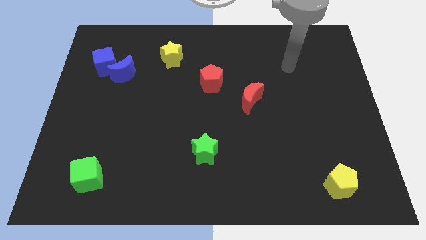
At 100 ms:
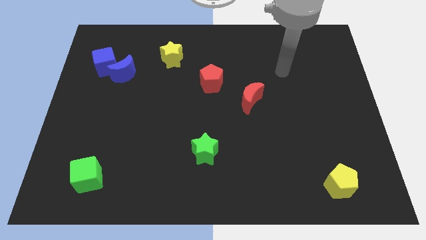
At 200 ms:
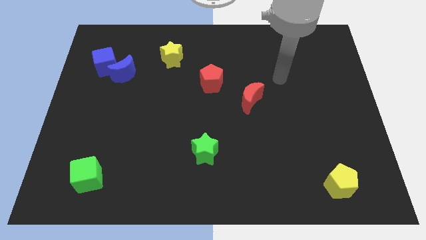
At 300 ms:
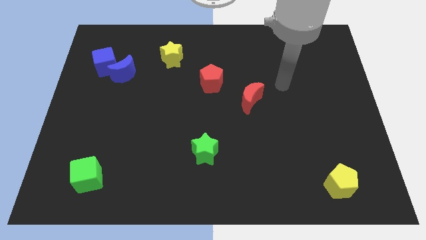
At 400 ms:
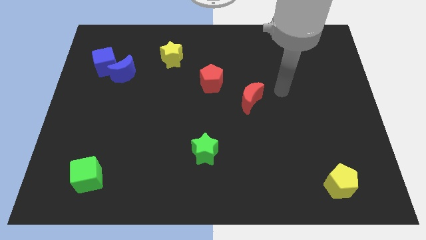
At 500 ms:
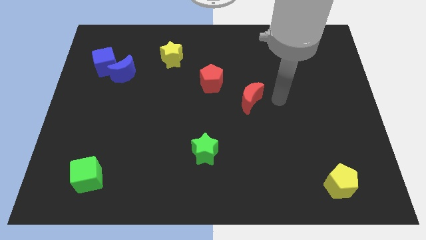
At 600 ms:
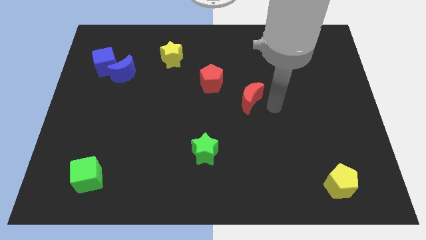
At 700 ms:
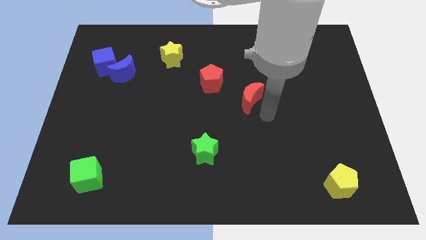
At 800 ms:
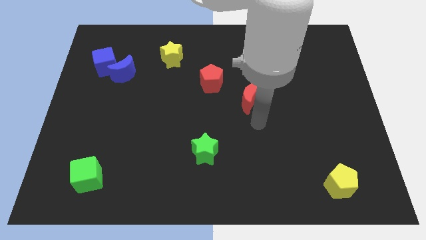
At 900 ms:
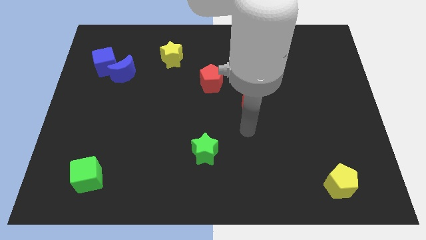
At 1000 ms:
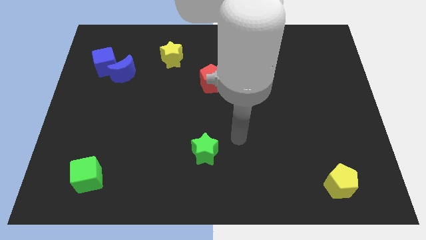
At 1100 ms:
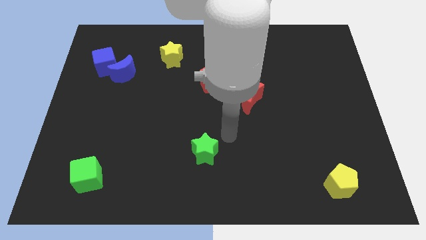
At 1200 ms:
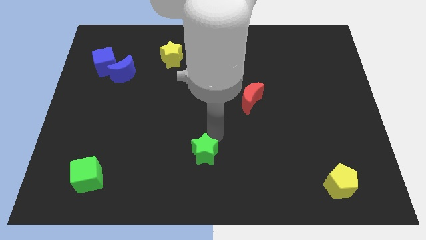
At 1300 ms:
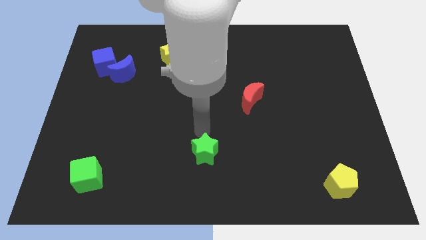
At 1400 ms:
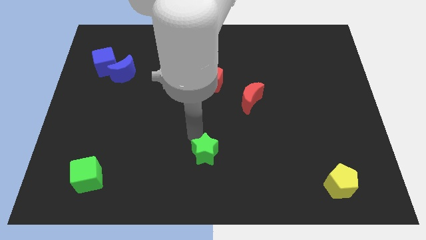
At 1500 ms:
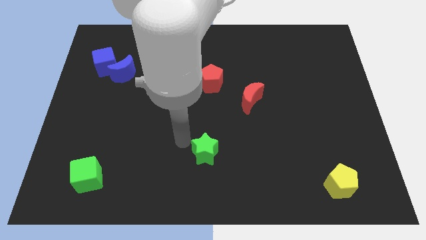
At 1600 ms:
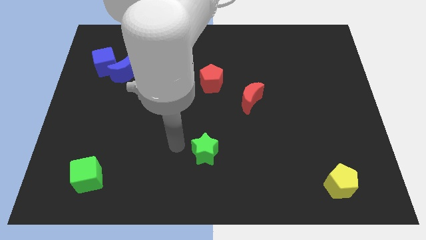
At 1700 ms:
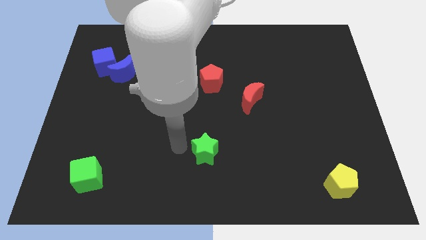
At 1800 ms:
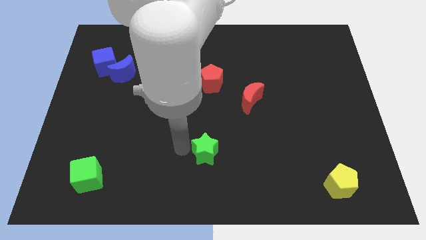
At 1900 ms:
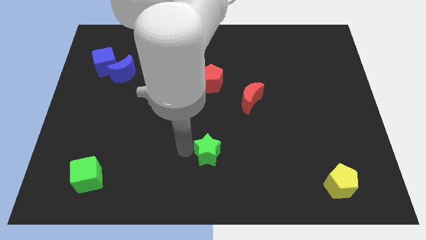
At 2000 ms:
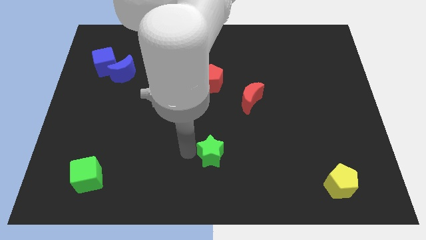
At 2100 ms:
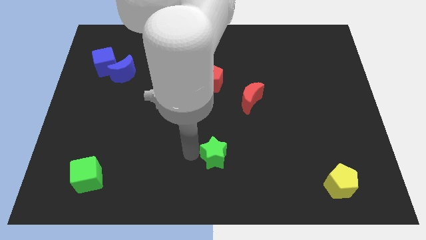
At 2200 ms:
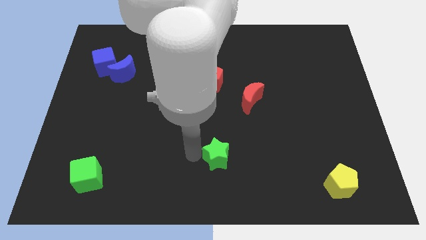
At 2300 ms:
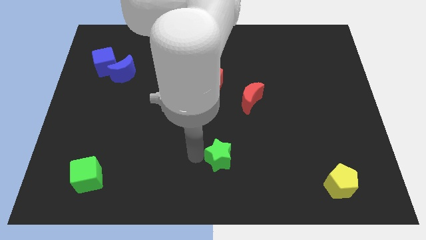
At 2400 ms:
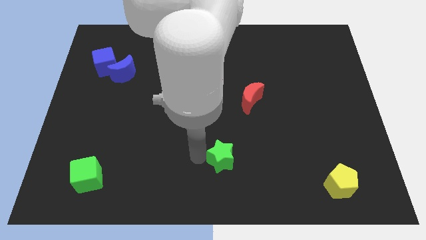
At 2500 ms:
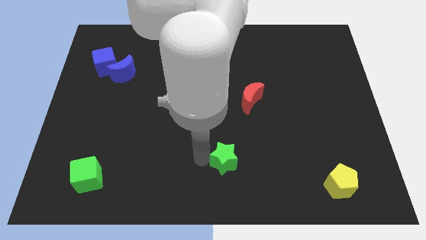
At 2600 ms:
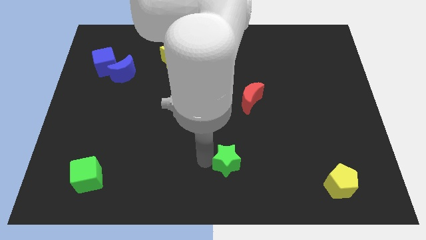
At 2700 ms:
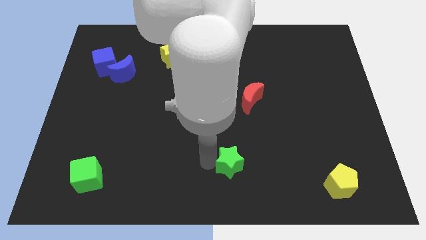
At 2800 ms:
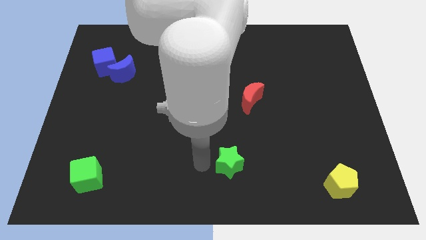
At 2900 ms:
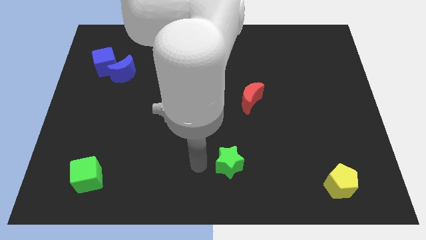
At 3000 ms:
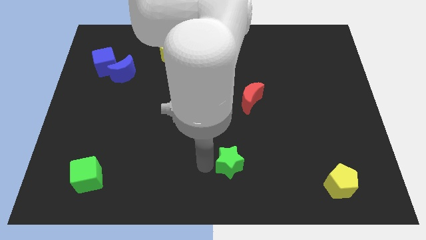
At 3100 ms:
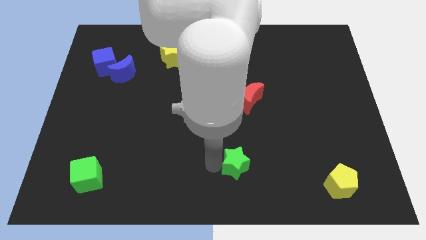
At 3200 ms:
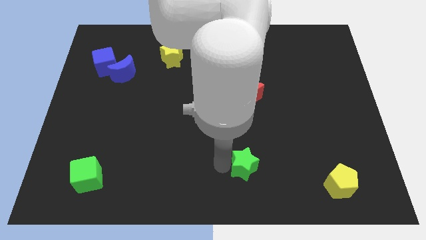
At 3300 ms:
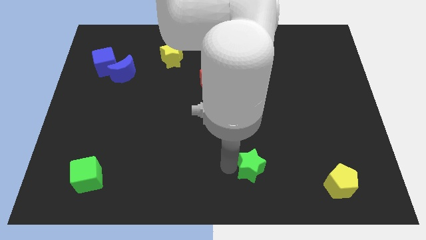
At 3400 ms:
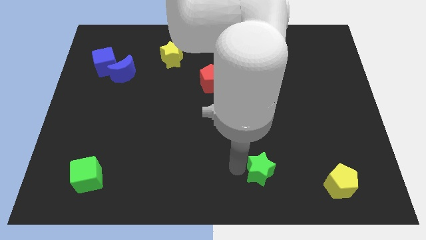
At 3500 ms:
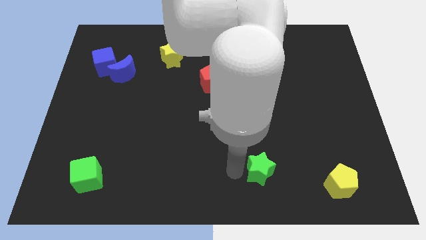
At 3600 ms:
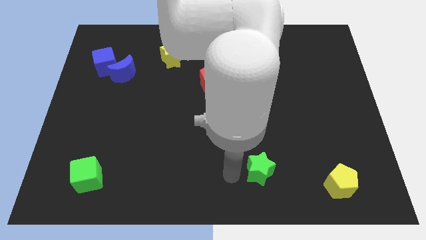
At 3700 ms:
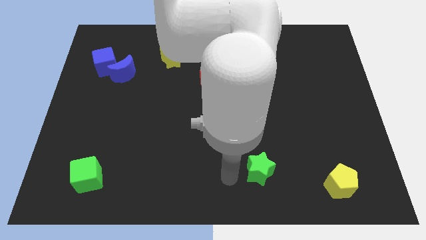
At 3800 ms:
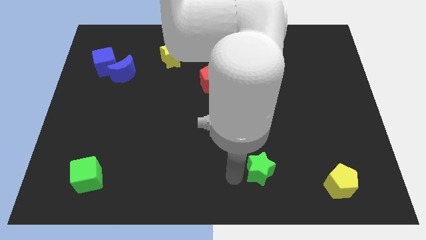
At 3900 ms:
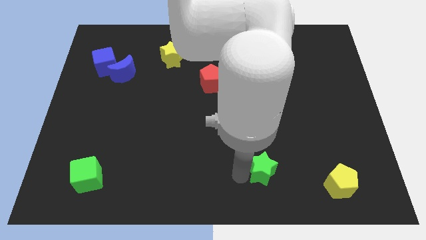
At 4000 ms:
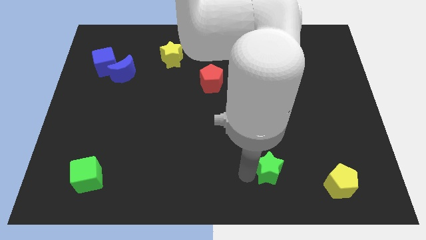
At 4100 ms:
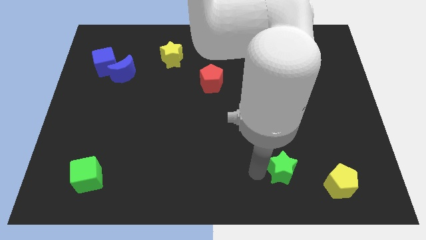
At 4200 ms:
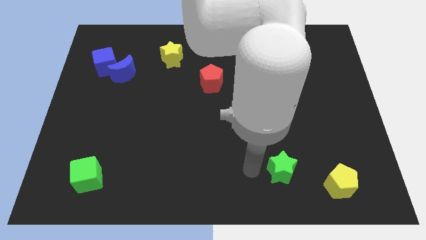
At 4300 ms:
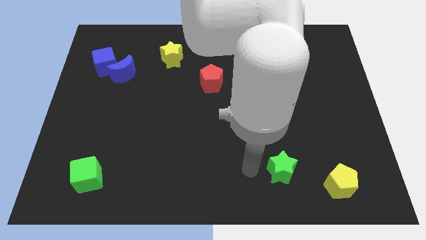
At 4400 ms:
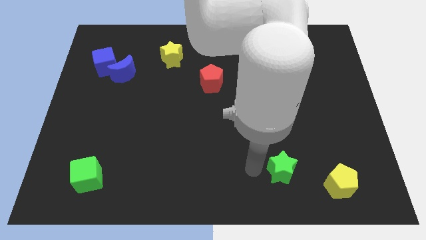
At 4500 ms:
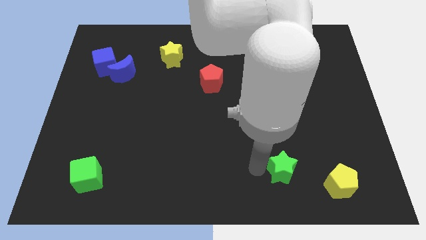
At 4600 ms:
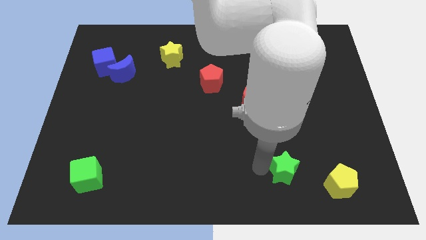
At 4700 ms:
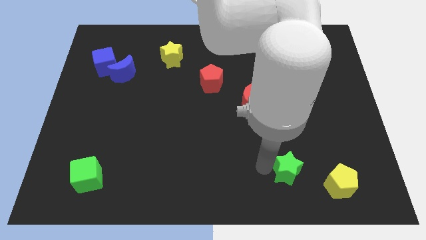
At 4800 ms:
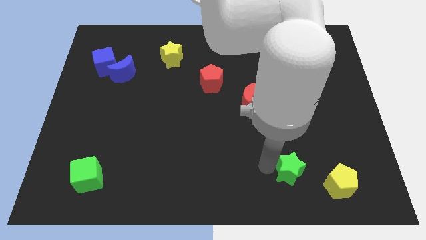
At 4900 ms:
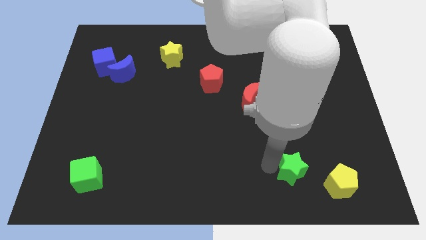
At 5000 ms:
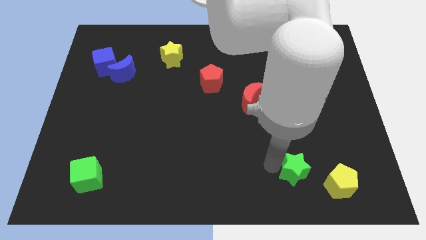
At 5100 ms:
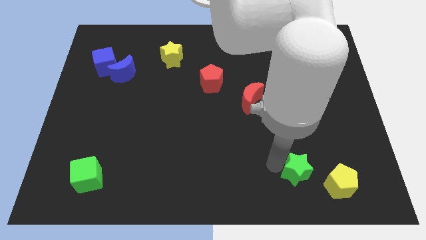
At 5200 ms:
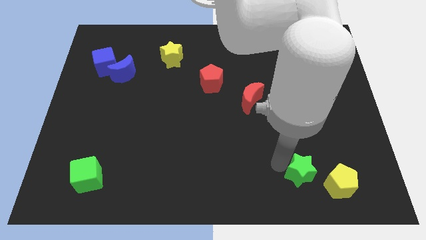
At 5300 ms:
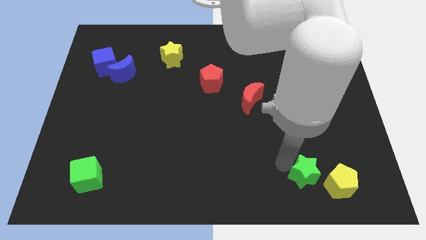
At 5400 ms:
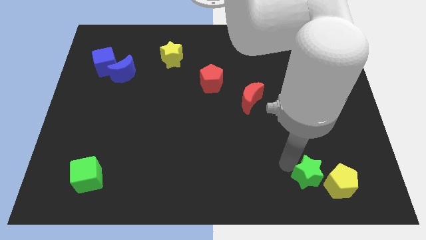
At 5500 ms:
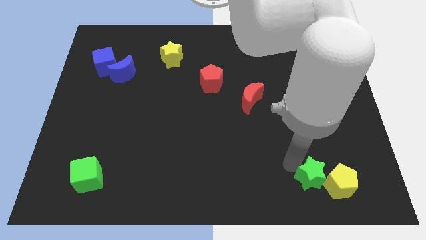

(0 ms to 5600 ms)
put the green star next to the yellow pentagon

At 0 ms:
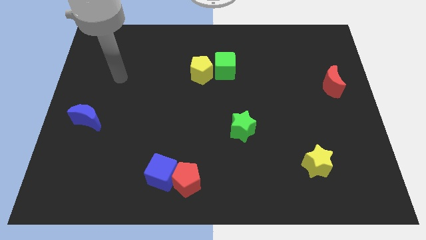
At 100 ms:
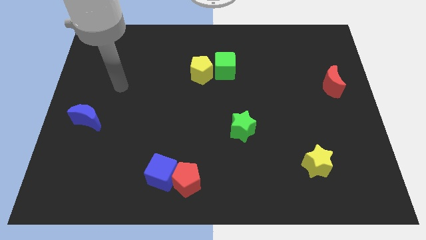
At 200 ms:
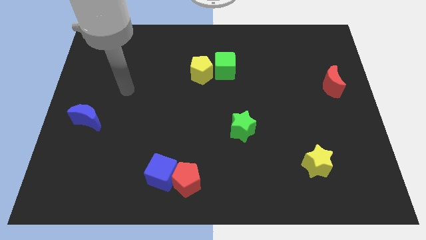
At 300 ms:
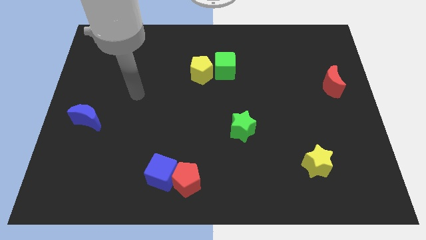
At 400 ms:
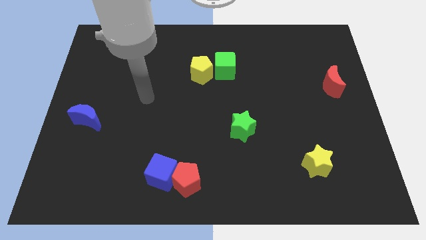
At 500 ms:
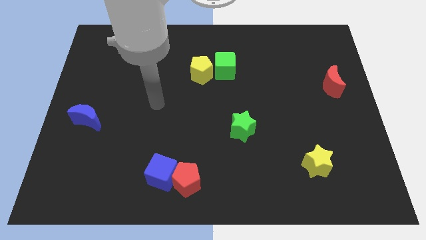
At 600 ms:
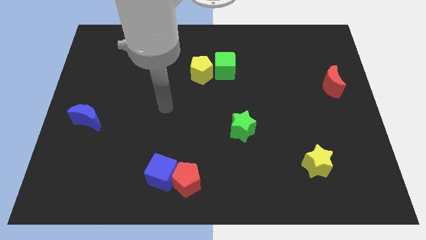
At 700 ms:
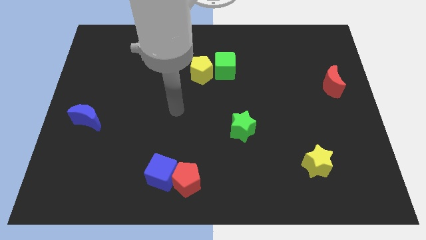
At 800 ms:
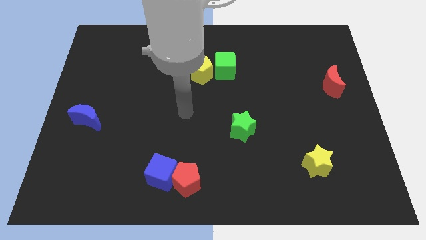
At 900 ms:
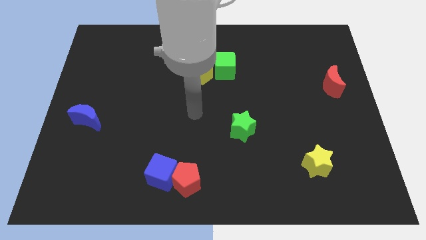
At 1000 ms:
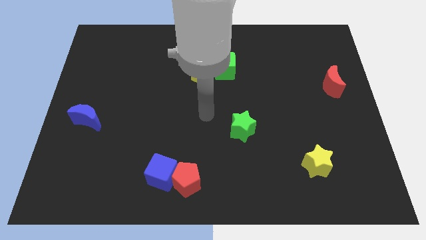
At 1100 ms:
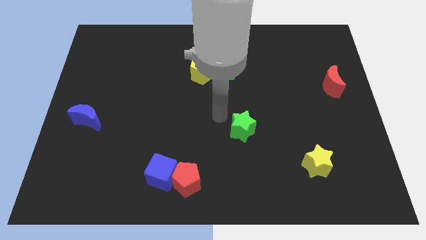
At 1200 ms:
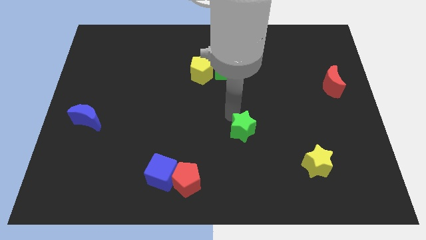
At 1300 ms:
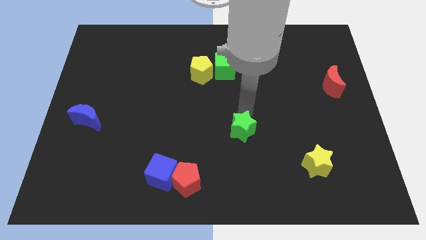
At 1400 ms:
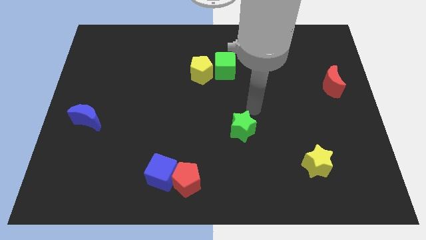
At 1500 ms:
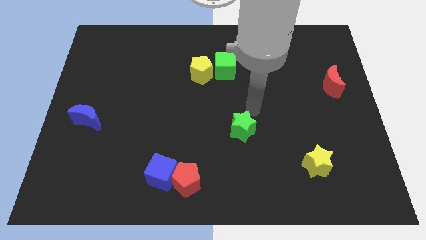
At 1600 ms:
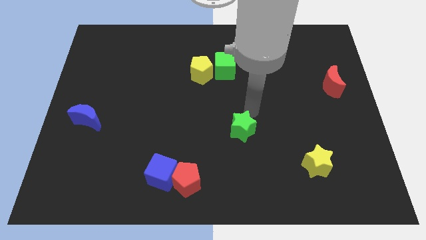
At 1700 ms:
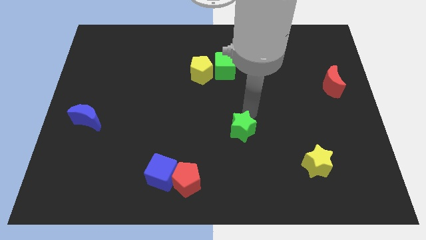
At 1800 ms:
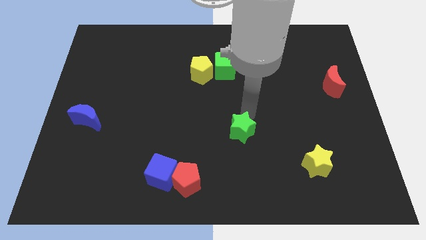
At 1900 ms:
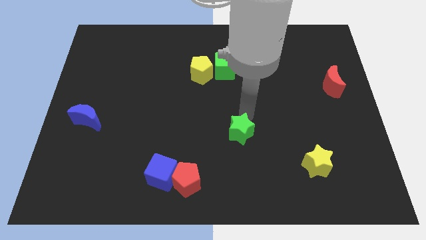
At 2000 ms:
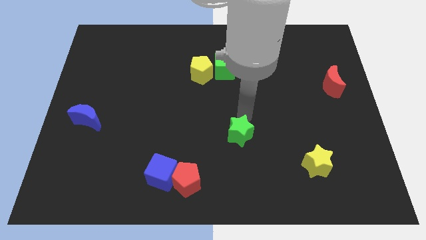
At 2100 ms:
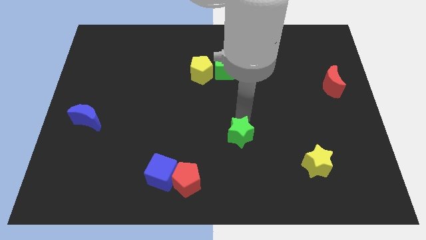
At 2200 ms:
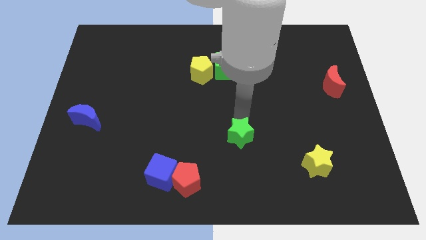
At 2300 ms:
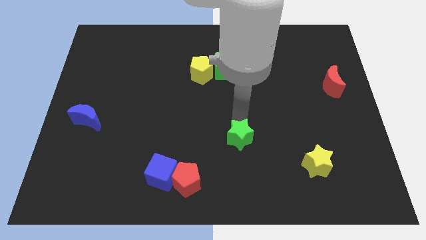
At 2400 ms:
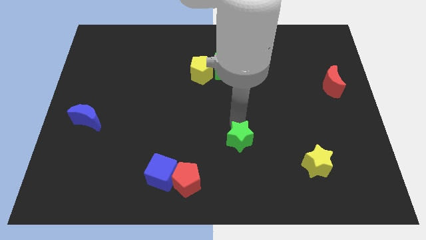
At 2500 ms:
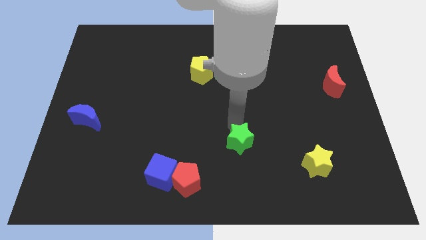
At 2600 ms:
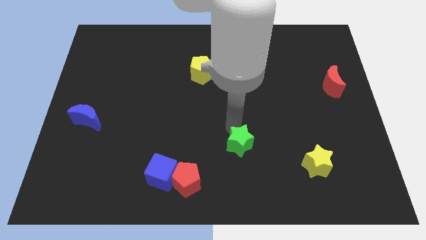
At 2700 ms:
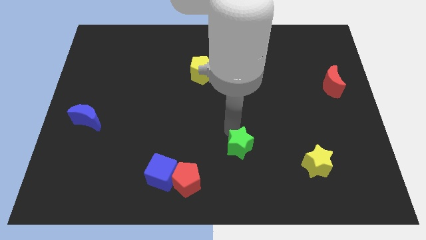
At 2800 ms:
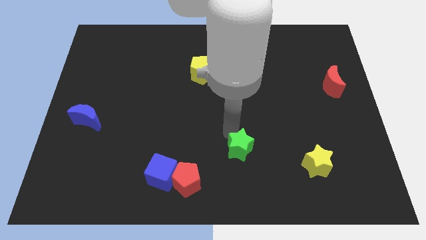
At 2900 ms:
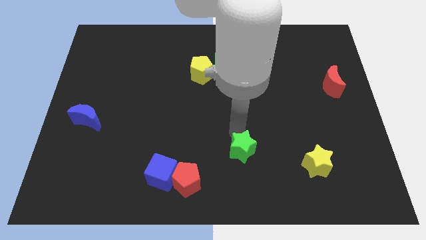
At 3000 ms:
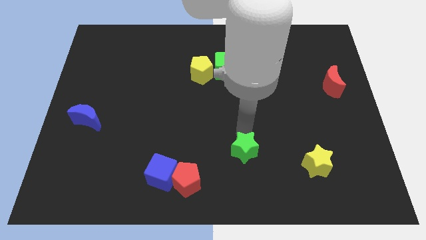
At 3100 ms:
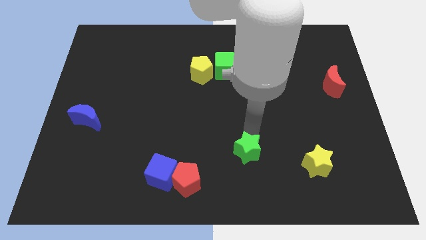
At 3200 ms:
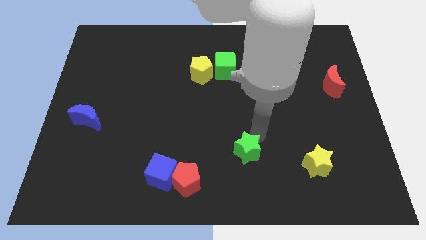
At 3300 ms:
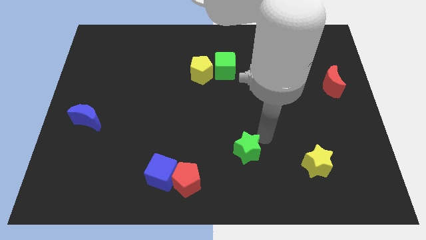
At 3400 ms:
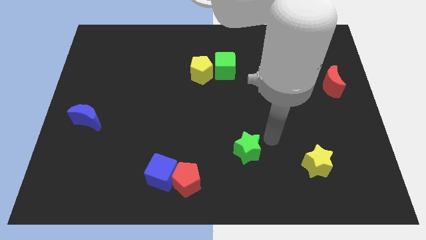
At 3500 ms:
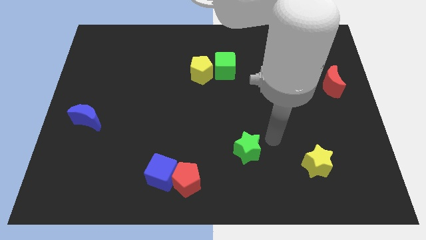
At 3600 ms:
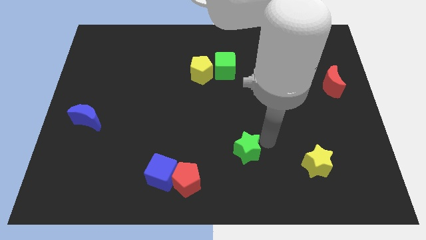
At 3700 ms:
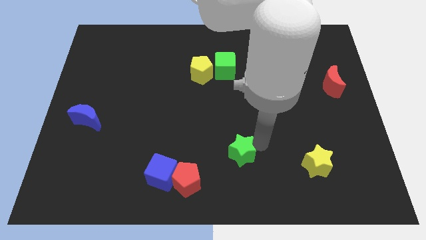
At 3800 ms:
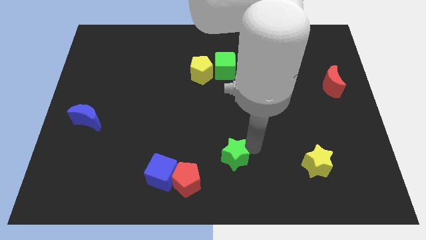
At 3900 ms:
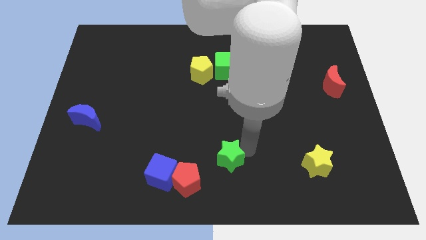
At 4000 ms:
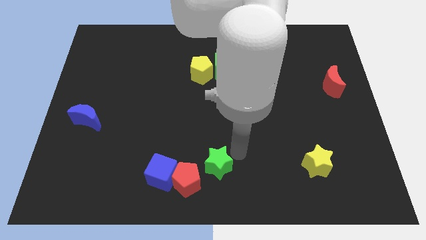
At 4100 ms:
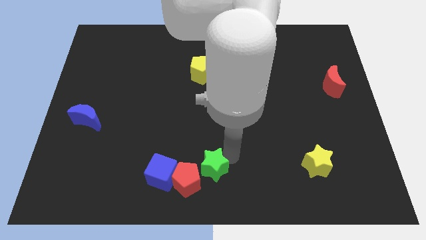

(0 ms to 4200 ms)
slide the green star next to the red pentagon
